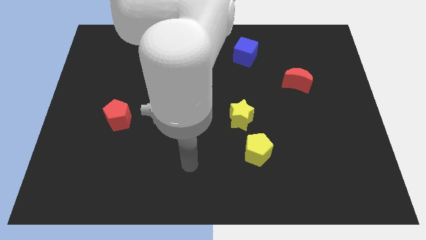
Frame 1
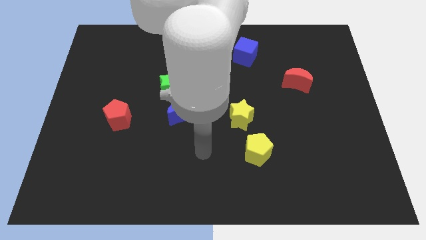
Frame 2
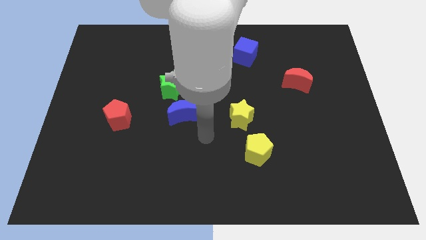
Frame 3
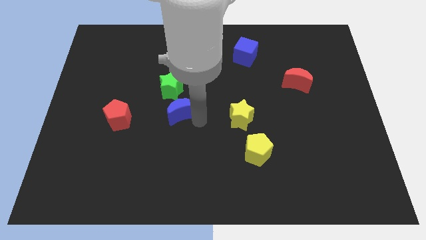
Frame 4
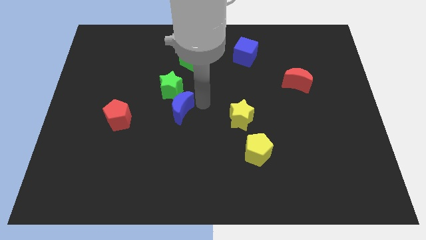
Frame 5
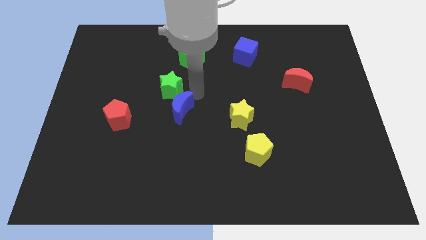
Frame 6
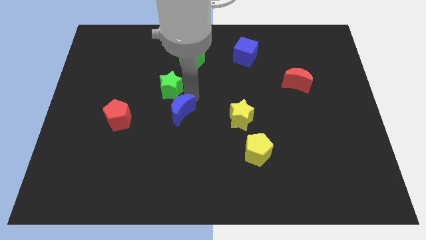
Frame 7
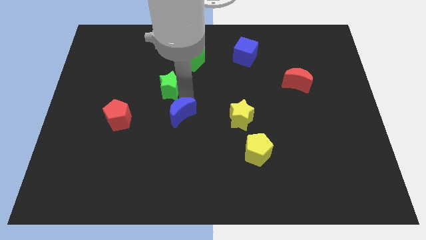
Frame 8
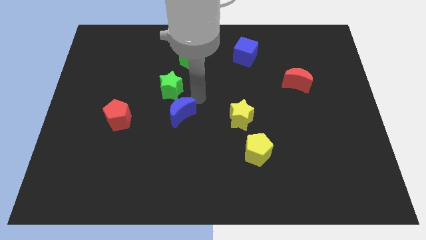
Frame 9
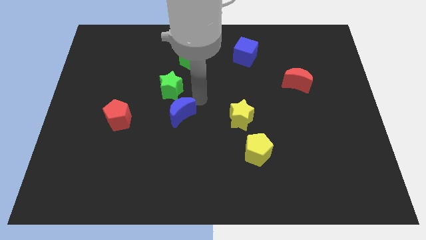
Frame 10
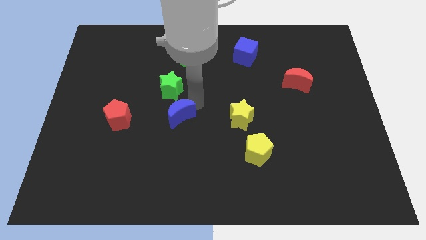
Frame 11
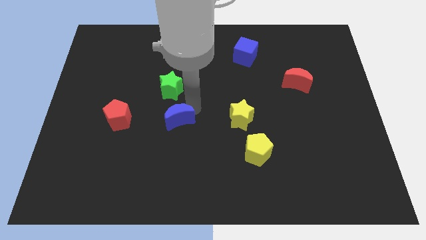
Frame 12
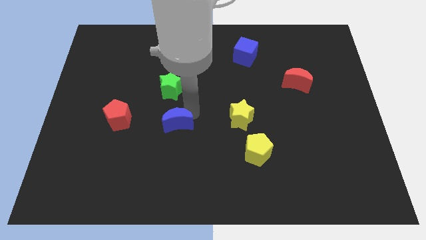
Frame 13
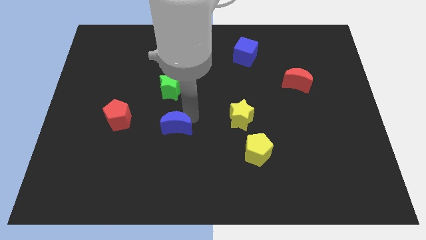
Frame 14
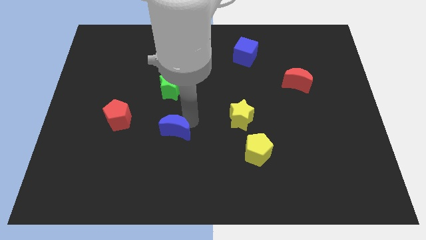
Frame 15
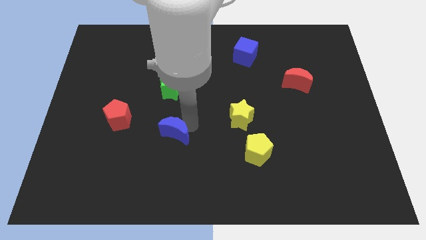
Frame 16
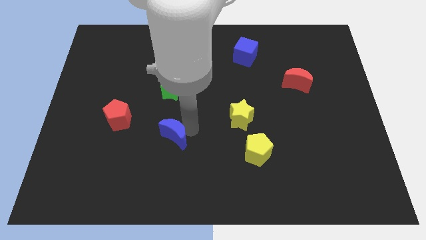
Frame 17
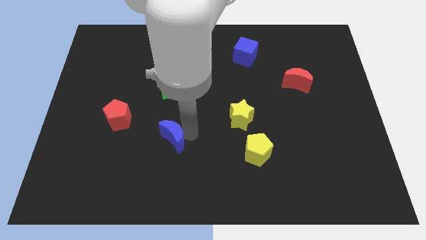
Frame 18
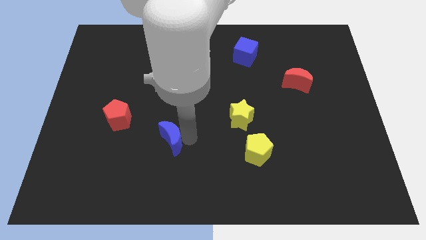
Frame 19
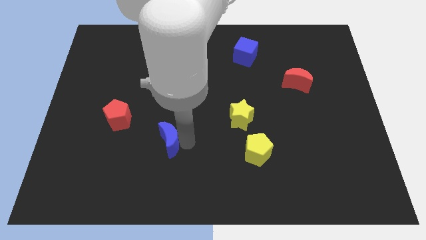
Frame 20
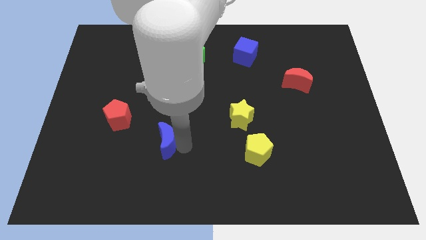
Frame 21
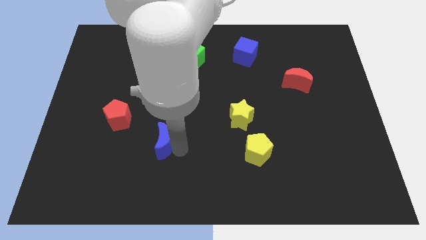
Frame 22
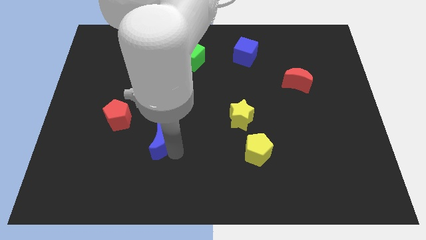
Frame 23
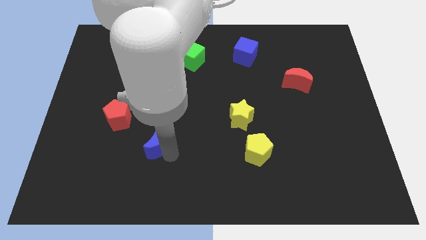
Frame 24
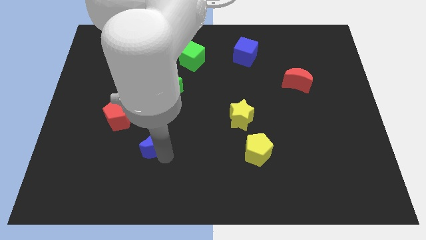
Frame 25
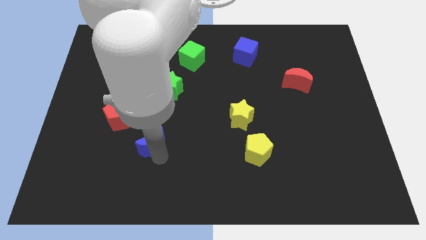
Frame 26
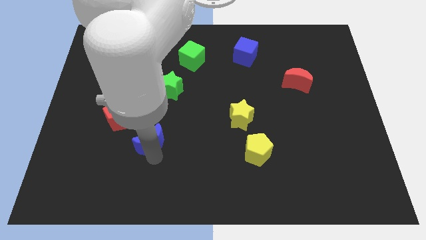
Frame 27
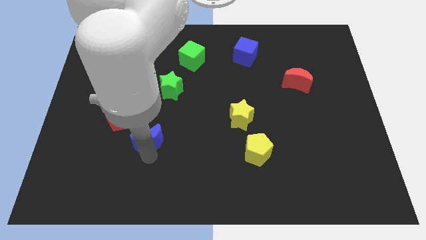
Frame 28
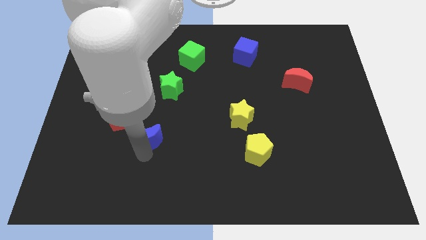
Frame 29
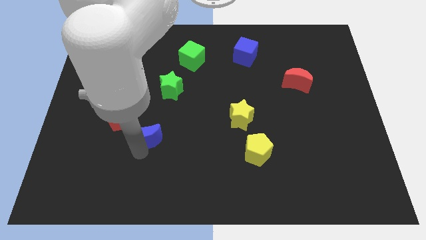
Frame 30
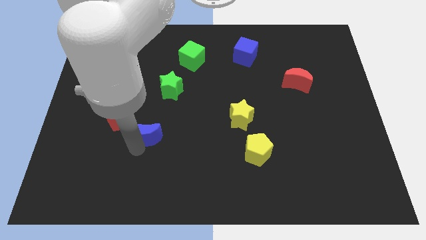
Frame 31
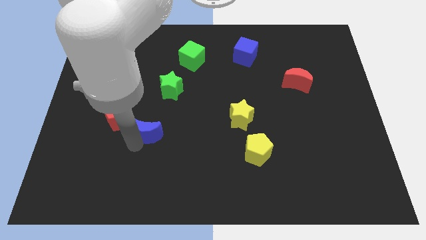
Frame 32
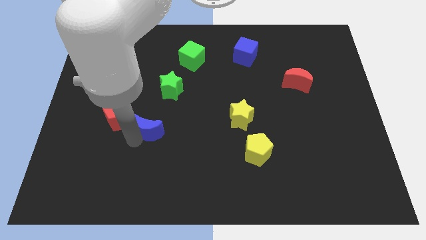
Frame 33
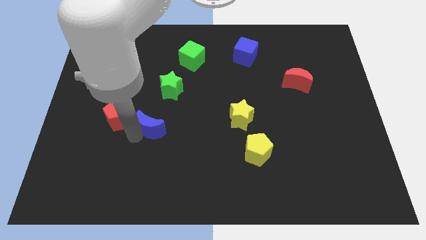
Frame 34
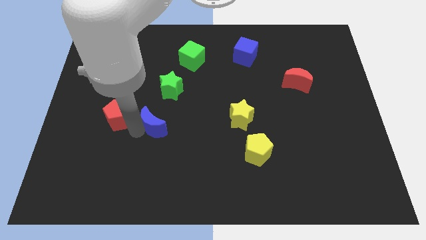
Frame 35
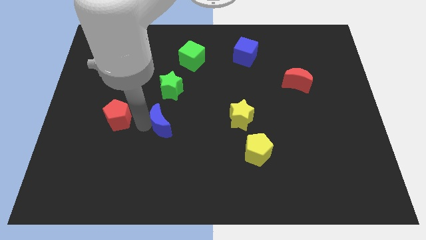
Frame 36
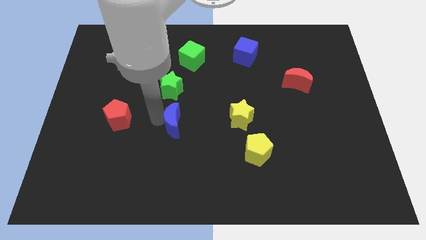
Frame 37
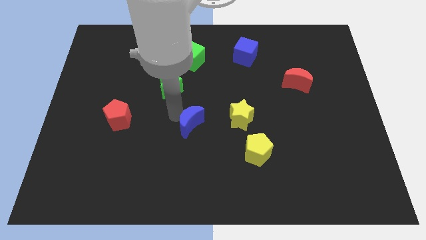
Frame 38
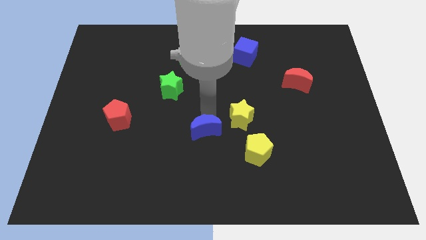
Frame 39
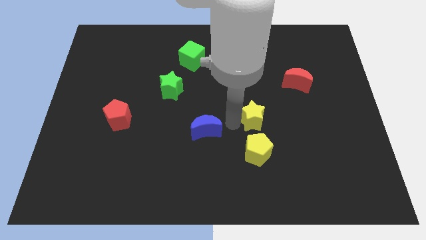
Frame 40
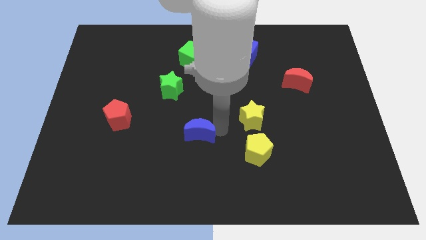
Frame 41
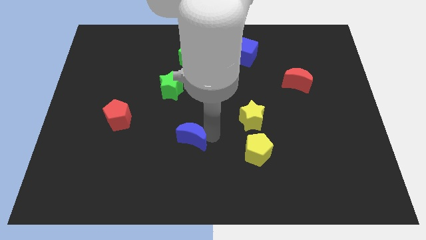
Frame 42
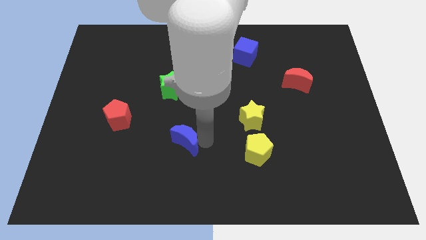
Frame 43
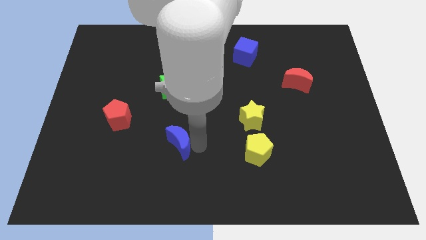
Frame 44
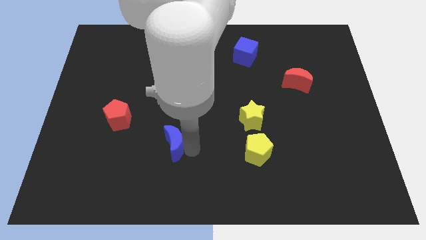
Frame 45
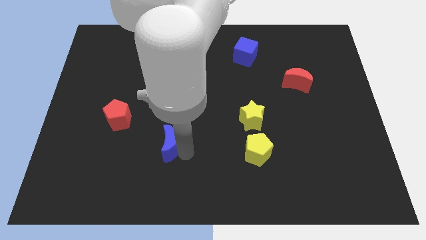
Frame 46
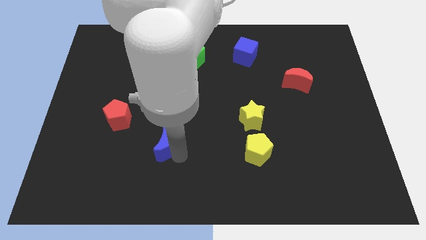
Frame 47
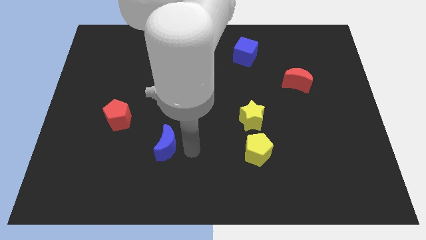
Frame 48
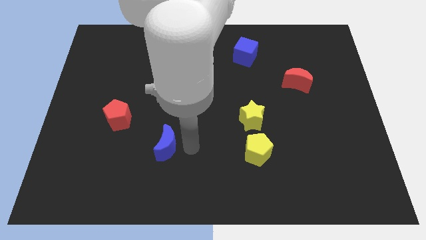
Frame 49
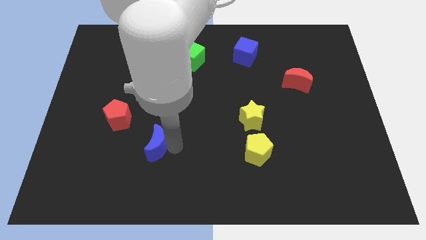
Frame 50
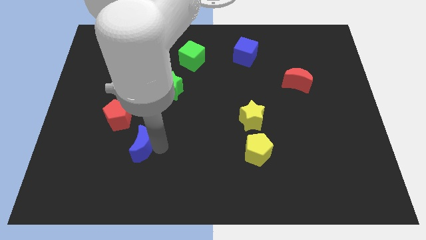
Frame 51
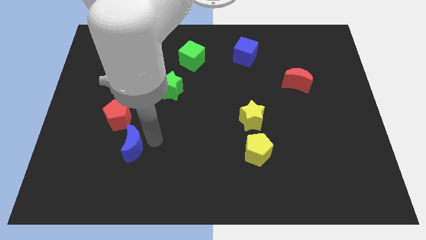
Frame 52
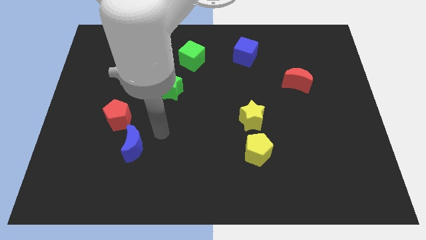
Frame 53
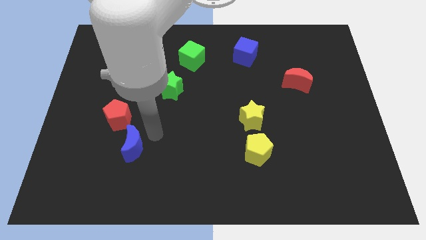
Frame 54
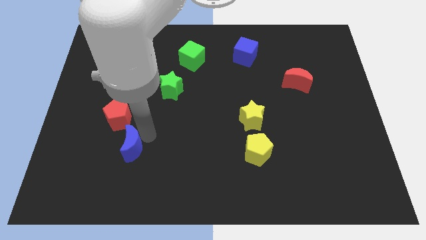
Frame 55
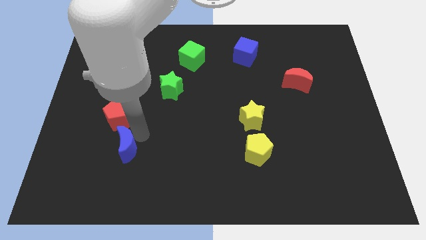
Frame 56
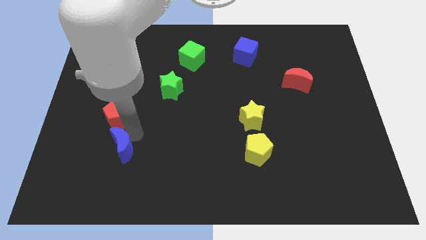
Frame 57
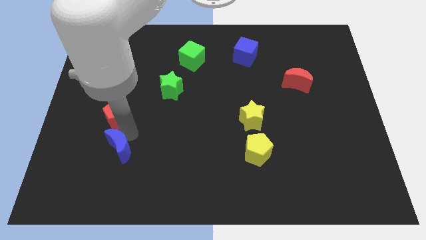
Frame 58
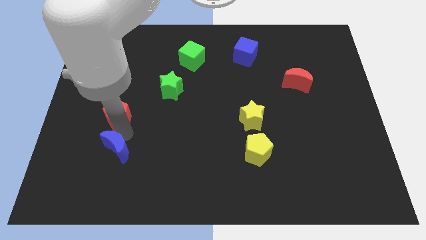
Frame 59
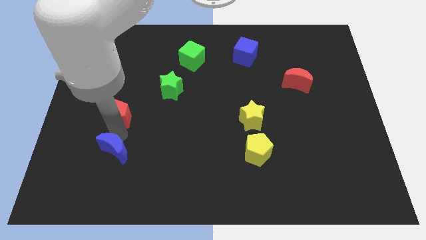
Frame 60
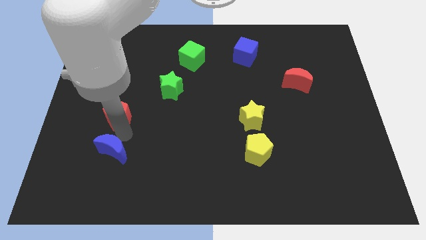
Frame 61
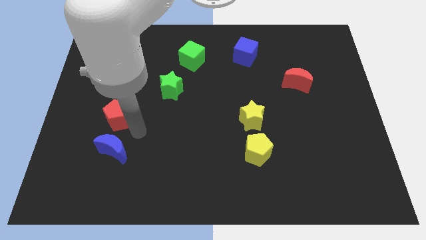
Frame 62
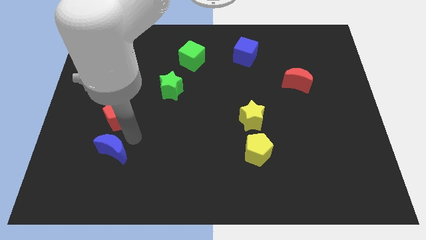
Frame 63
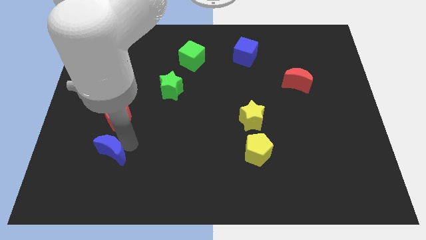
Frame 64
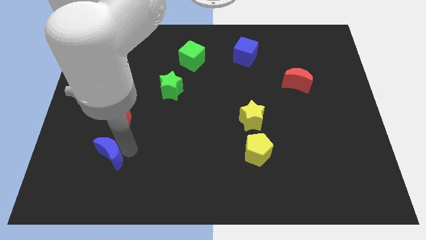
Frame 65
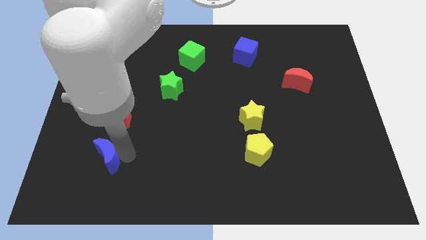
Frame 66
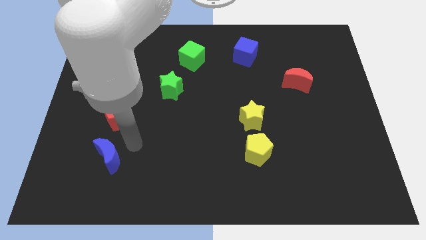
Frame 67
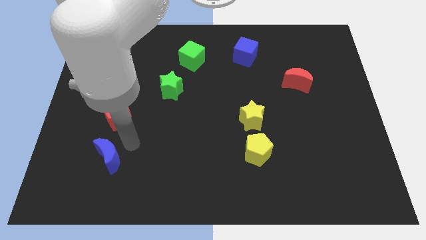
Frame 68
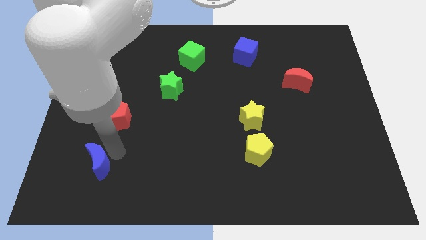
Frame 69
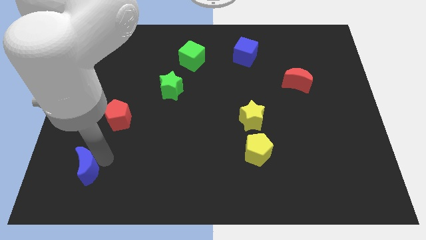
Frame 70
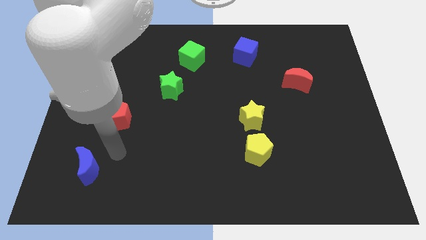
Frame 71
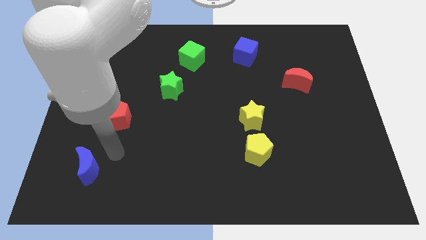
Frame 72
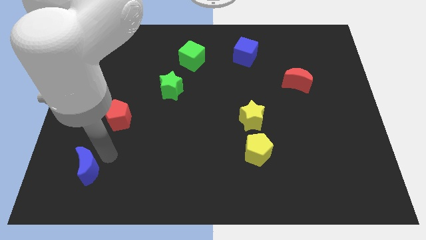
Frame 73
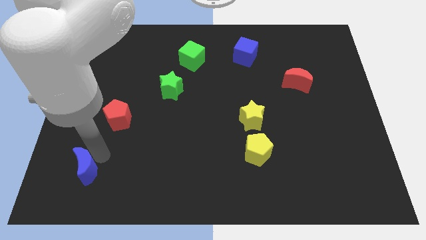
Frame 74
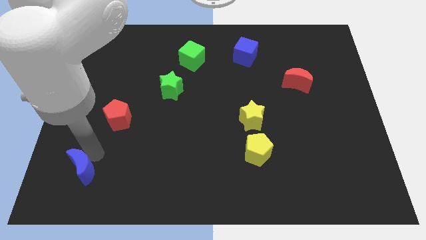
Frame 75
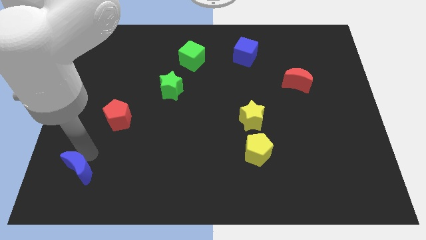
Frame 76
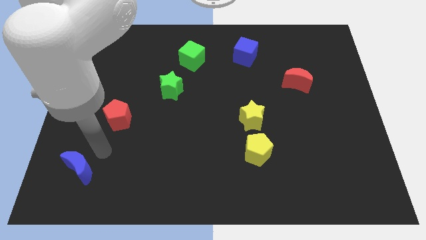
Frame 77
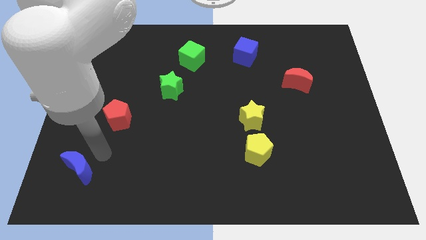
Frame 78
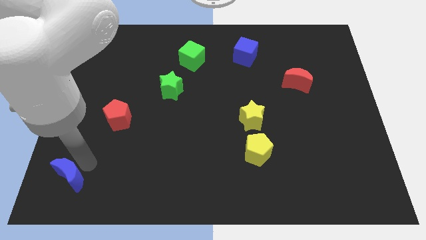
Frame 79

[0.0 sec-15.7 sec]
slide the blue moon to the bottom left corner
